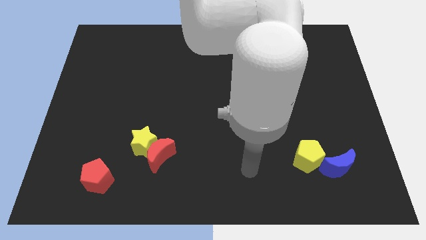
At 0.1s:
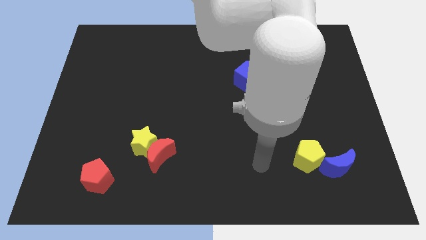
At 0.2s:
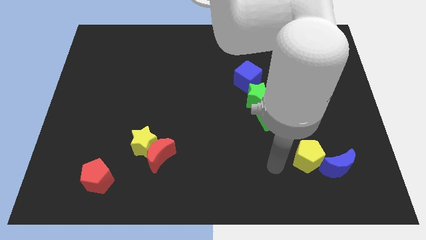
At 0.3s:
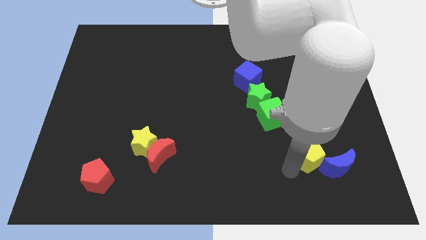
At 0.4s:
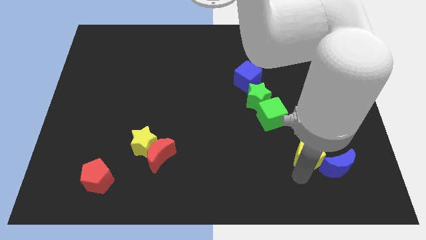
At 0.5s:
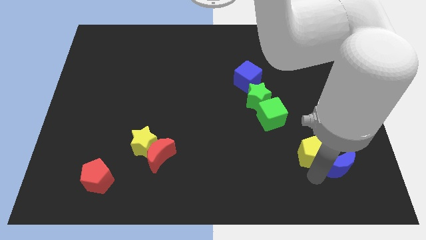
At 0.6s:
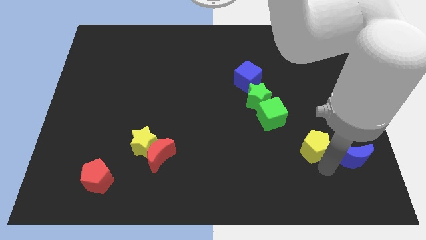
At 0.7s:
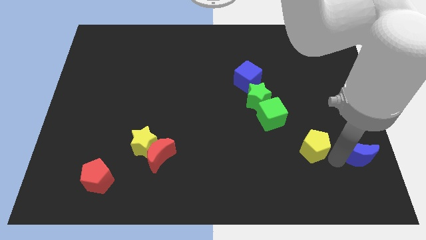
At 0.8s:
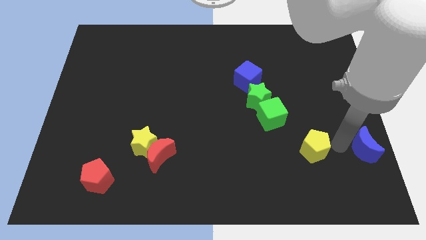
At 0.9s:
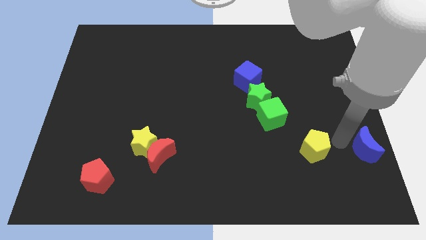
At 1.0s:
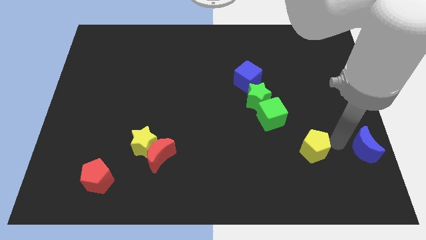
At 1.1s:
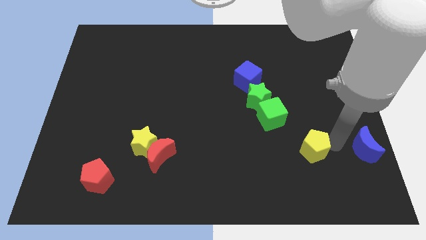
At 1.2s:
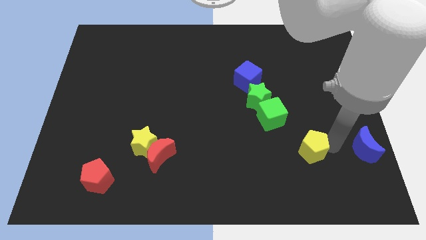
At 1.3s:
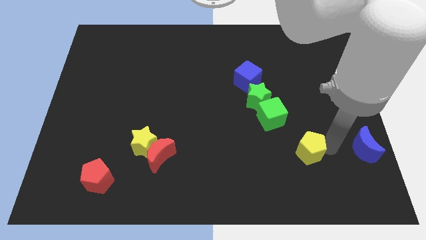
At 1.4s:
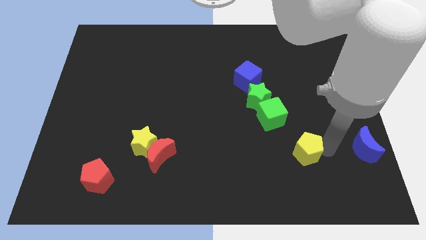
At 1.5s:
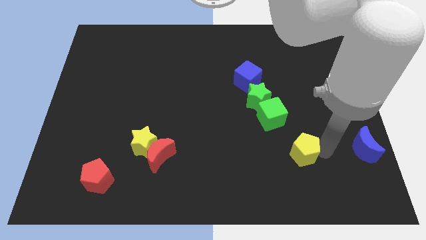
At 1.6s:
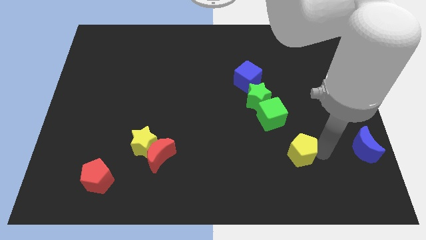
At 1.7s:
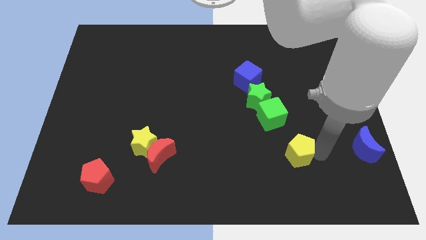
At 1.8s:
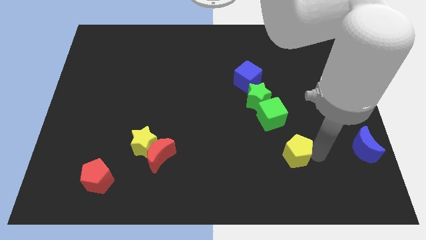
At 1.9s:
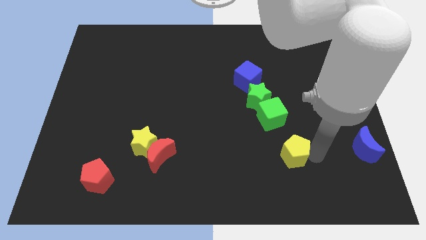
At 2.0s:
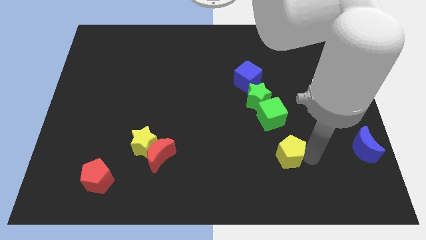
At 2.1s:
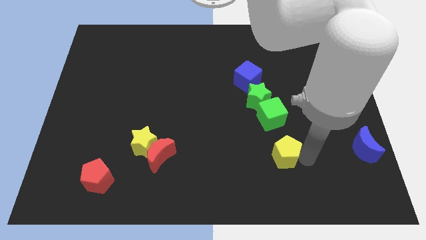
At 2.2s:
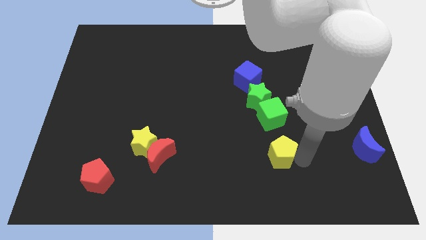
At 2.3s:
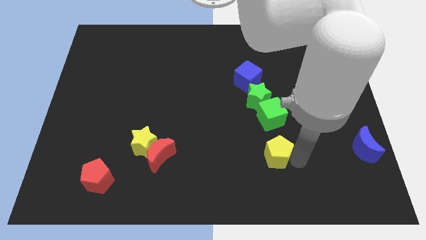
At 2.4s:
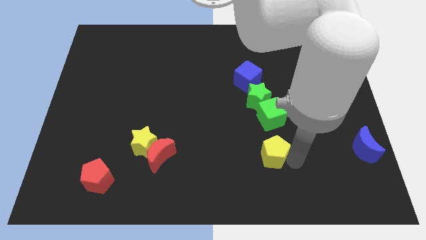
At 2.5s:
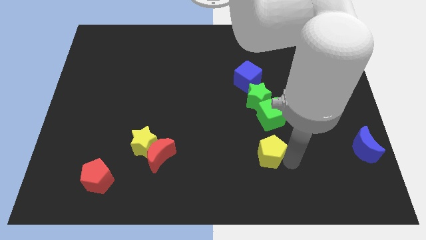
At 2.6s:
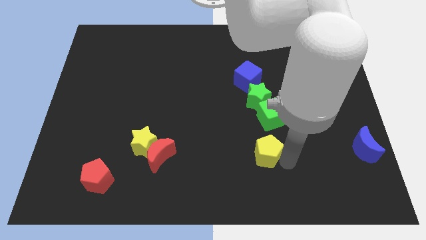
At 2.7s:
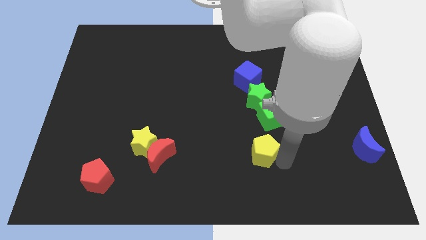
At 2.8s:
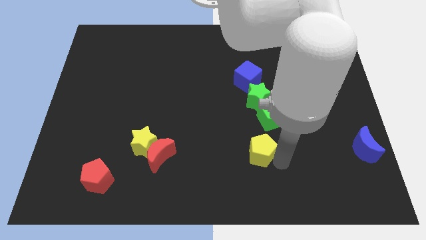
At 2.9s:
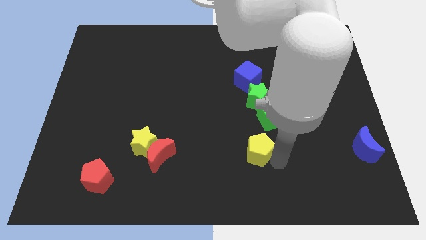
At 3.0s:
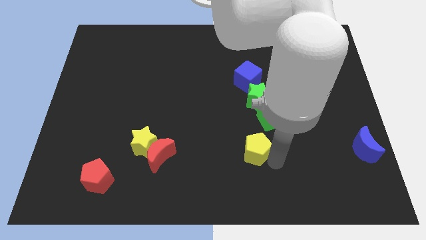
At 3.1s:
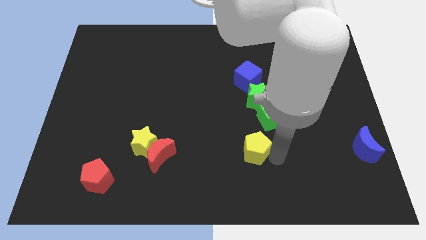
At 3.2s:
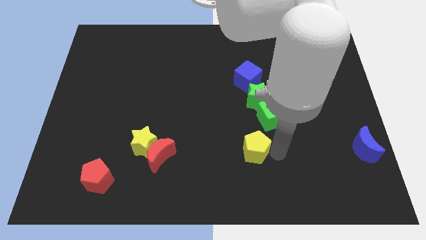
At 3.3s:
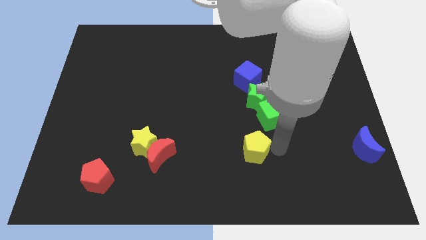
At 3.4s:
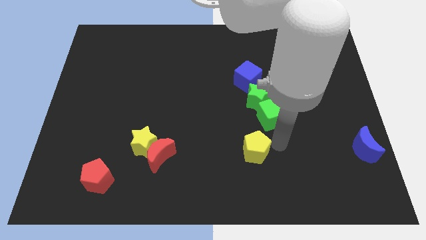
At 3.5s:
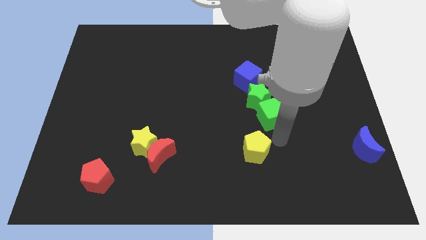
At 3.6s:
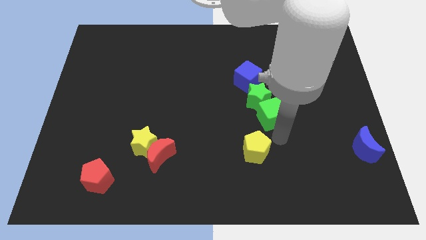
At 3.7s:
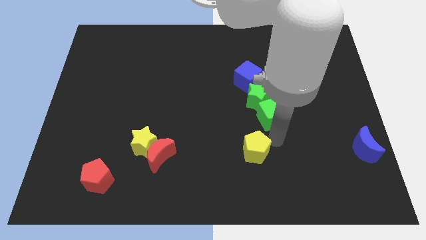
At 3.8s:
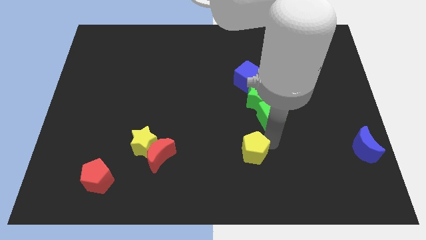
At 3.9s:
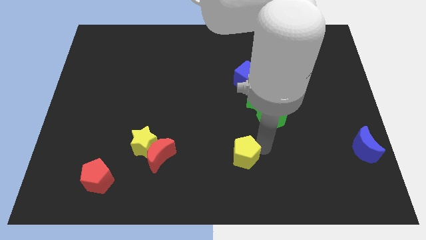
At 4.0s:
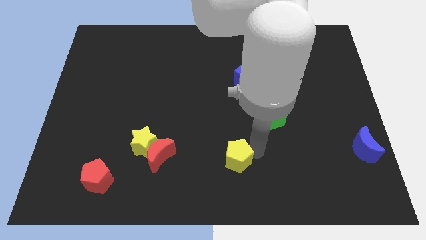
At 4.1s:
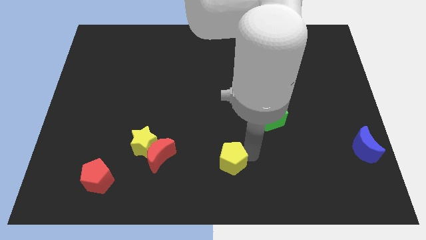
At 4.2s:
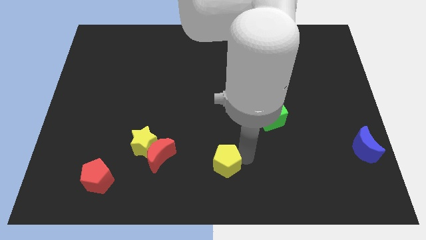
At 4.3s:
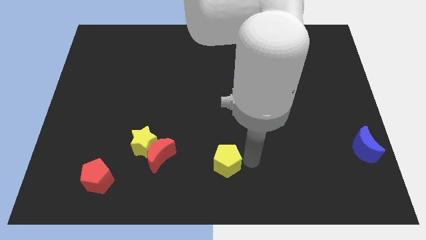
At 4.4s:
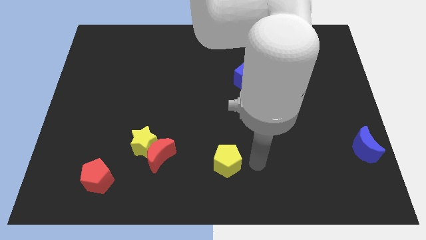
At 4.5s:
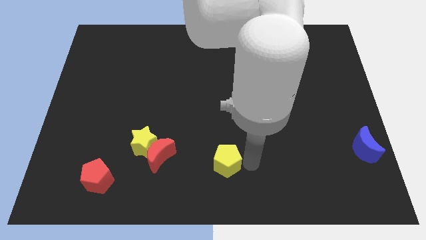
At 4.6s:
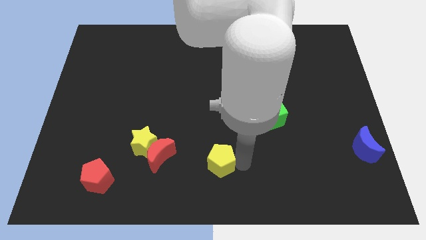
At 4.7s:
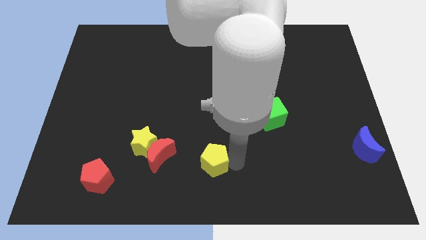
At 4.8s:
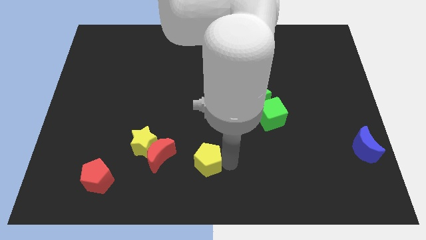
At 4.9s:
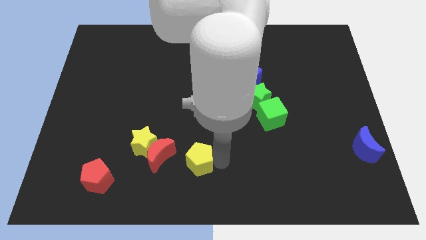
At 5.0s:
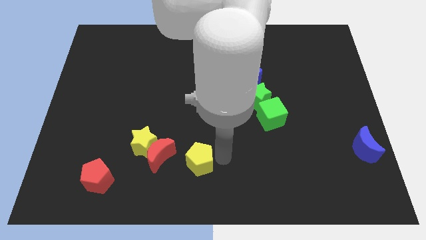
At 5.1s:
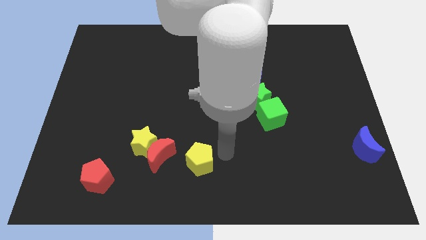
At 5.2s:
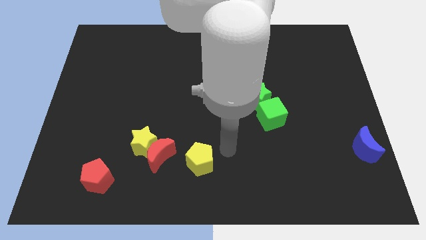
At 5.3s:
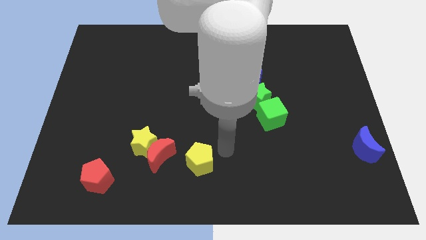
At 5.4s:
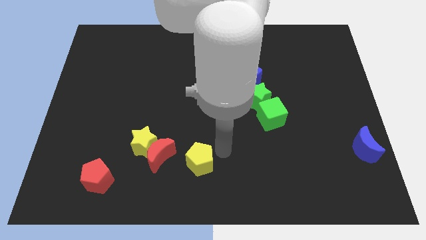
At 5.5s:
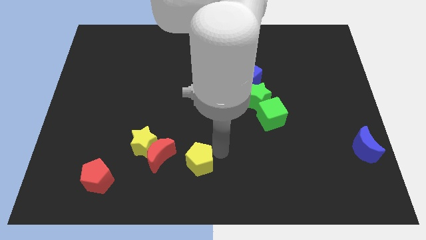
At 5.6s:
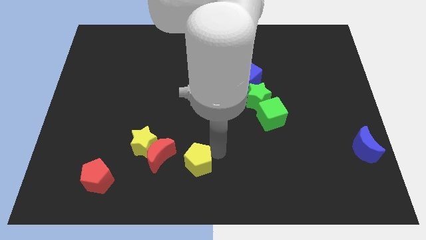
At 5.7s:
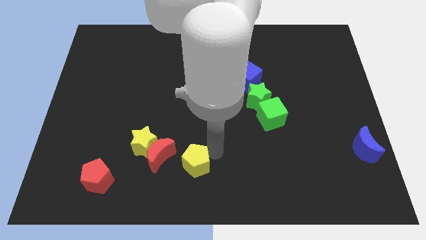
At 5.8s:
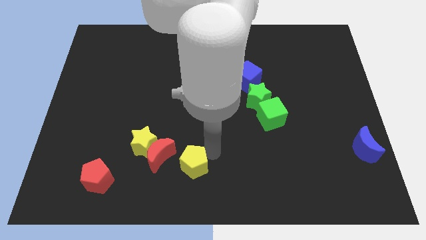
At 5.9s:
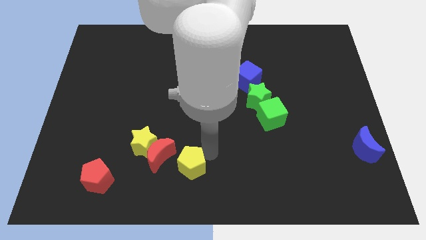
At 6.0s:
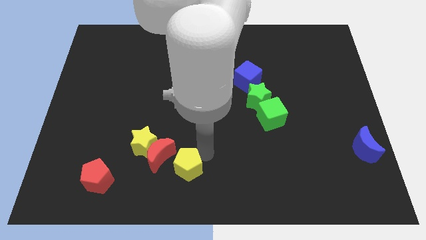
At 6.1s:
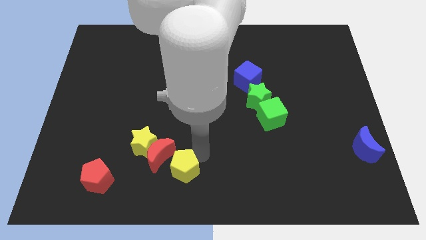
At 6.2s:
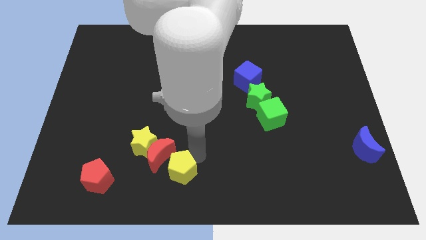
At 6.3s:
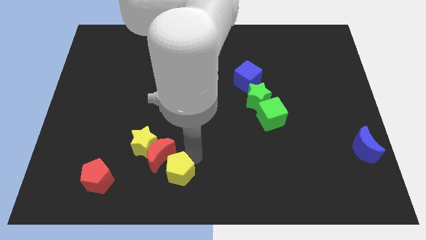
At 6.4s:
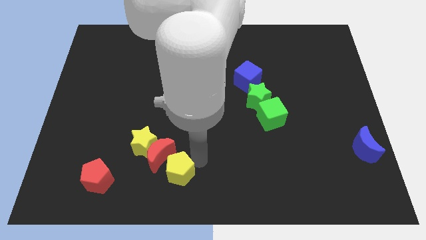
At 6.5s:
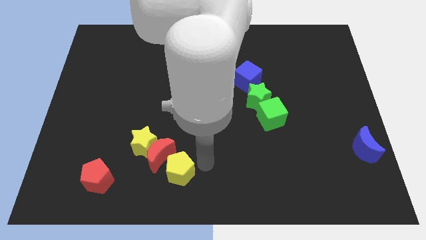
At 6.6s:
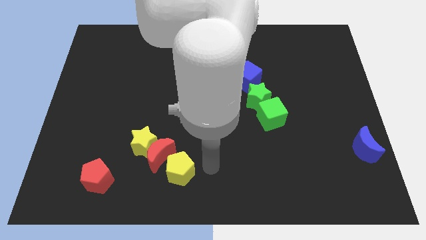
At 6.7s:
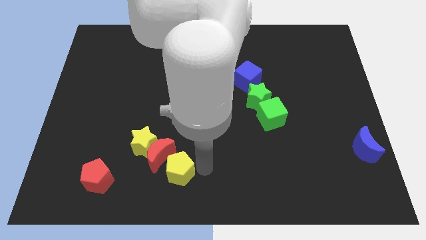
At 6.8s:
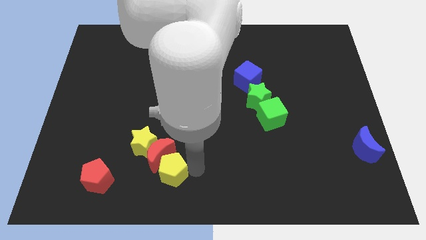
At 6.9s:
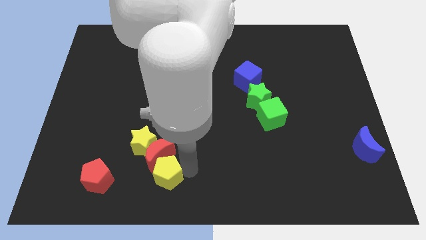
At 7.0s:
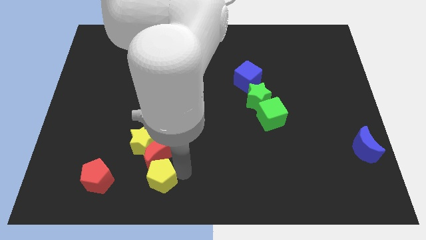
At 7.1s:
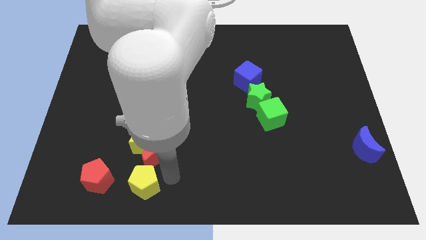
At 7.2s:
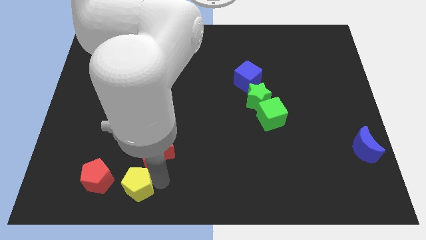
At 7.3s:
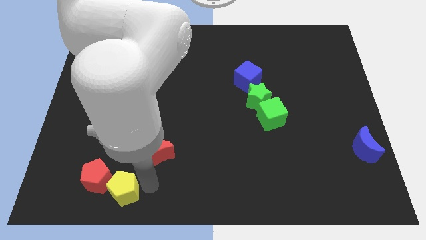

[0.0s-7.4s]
put the yellow pentagon next to the red pentagon
